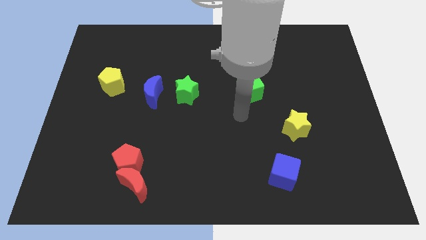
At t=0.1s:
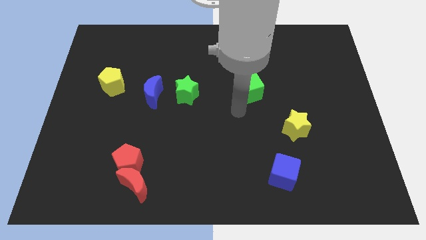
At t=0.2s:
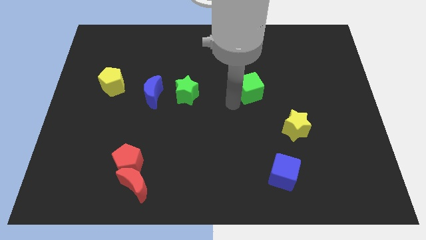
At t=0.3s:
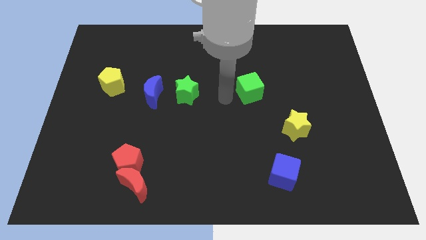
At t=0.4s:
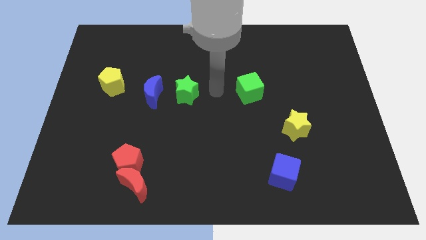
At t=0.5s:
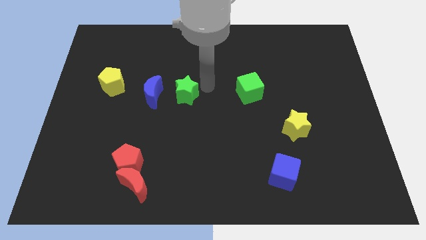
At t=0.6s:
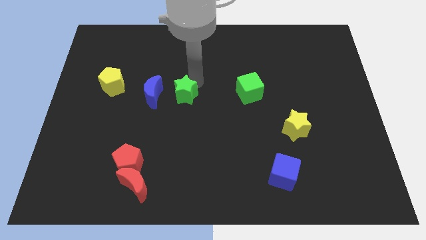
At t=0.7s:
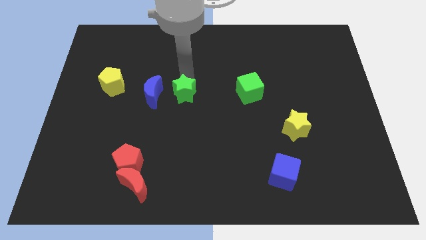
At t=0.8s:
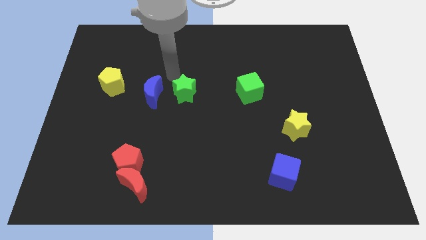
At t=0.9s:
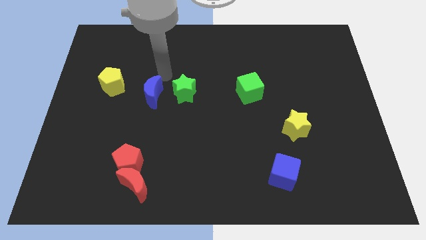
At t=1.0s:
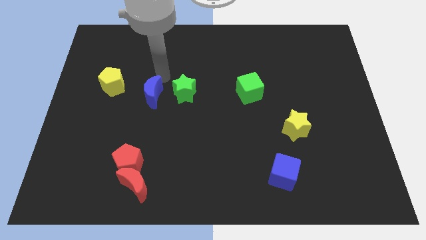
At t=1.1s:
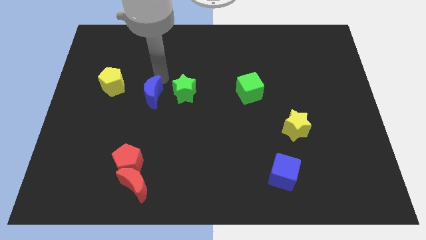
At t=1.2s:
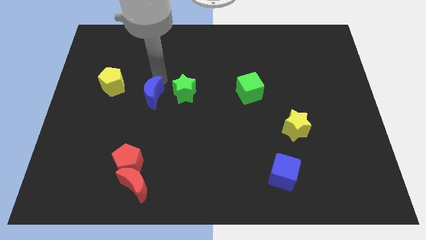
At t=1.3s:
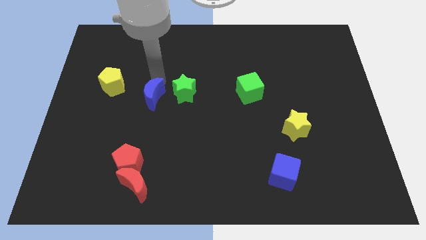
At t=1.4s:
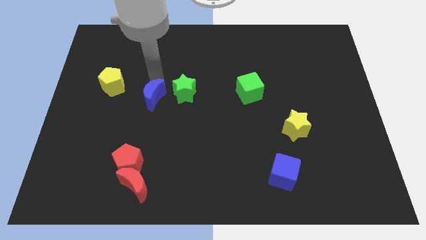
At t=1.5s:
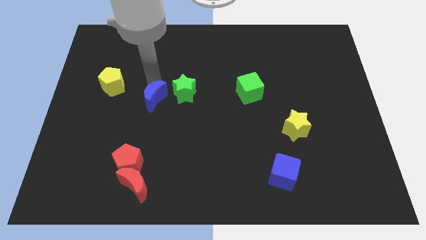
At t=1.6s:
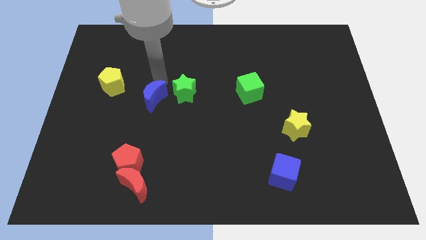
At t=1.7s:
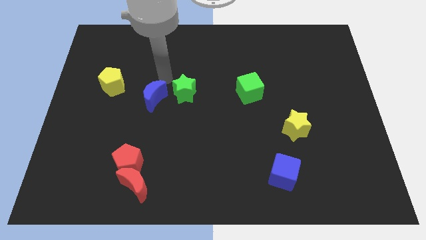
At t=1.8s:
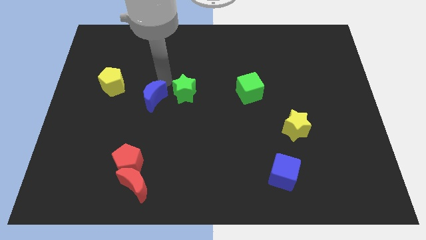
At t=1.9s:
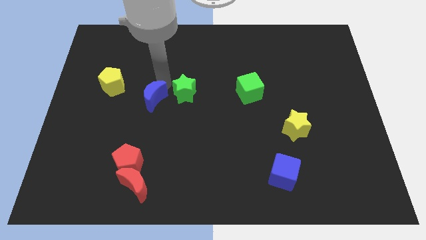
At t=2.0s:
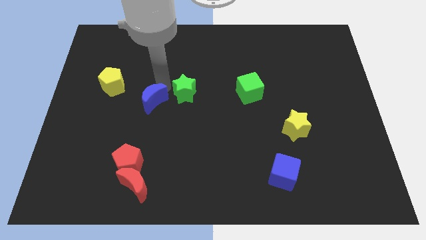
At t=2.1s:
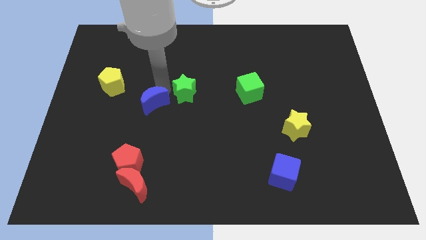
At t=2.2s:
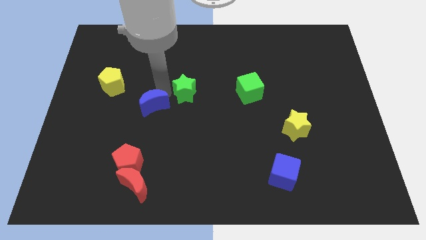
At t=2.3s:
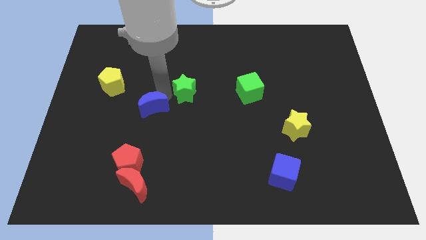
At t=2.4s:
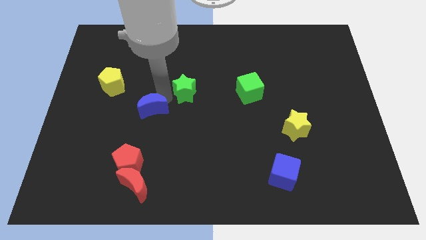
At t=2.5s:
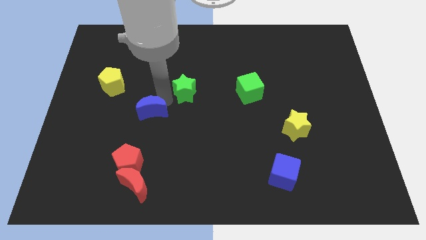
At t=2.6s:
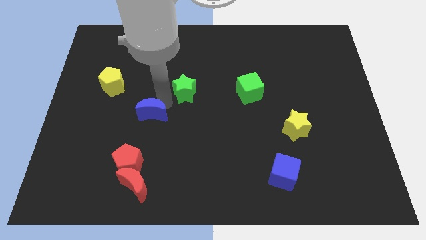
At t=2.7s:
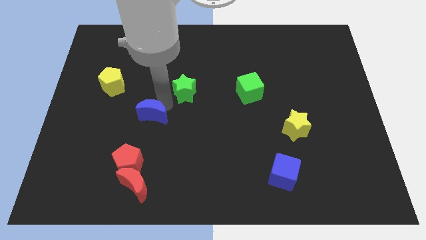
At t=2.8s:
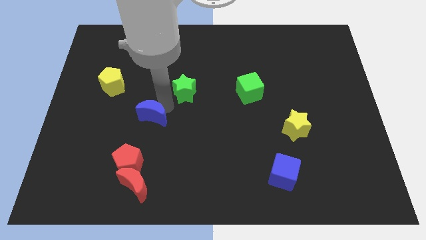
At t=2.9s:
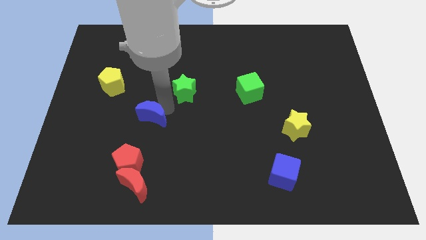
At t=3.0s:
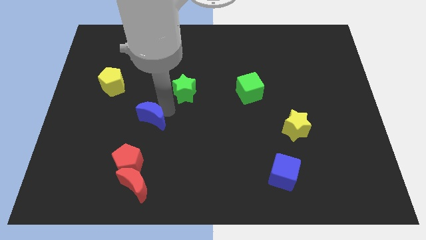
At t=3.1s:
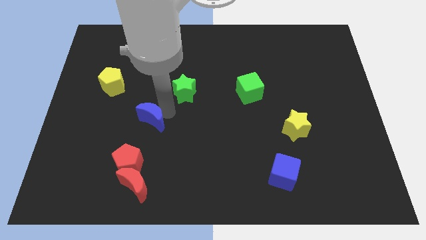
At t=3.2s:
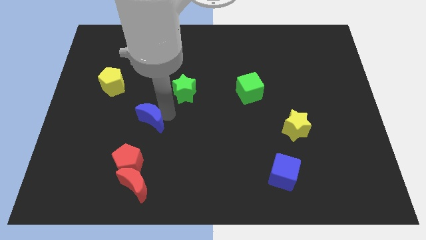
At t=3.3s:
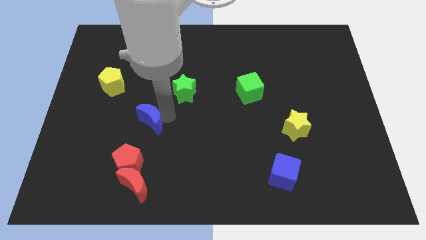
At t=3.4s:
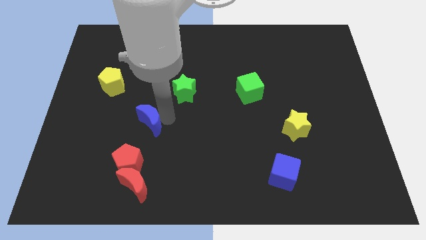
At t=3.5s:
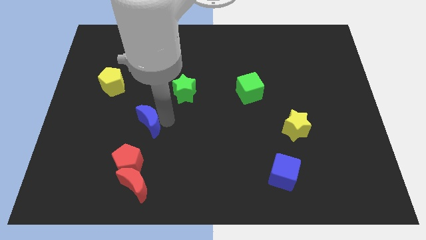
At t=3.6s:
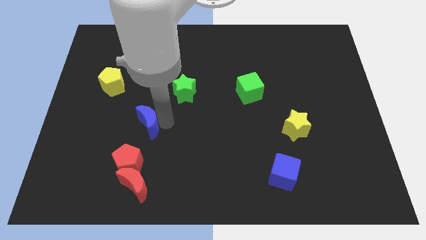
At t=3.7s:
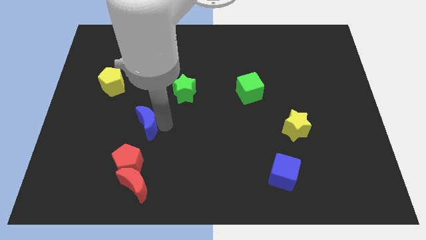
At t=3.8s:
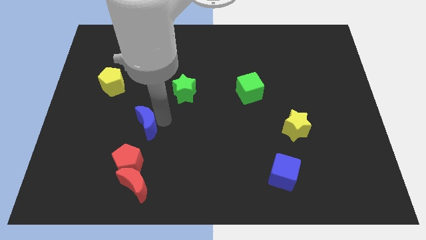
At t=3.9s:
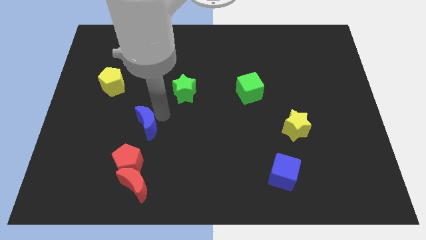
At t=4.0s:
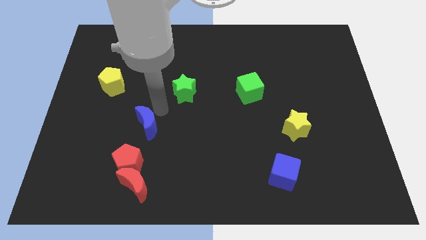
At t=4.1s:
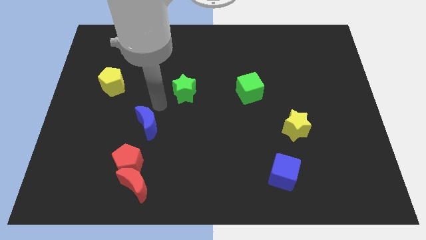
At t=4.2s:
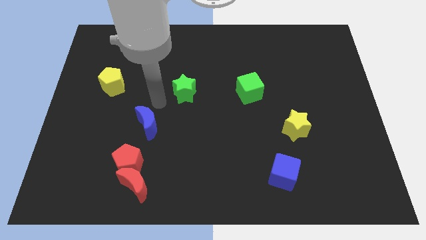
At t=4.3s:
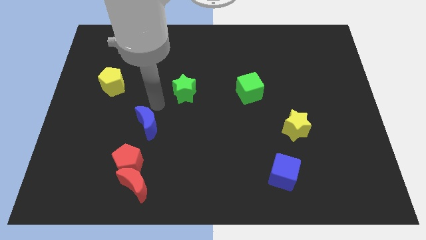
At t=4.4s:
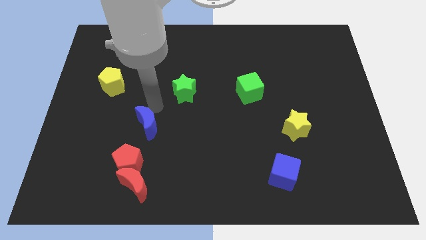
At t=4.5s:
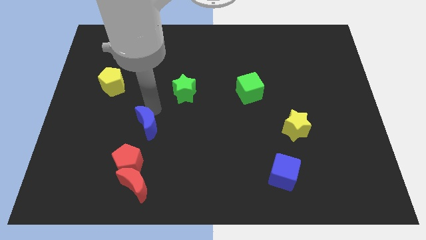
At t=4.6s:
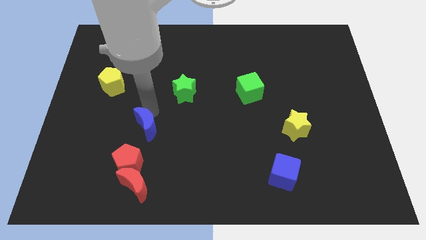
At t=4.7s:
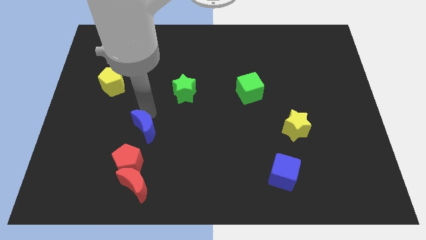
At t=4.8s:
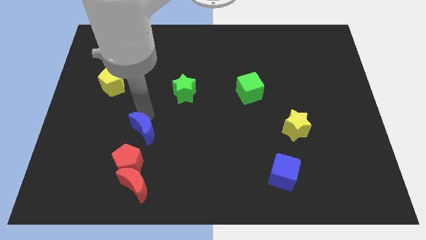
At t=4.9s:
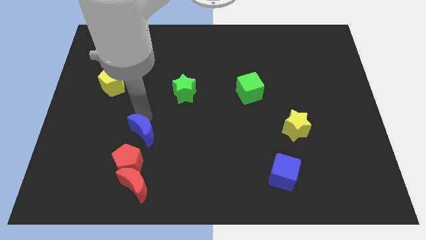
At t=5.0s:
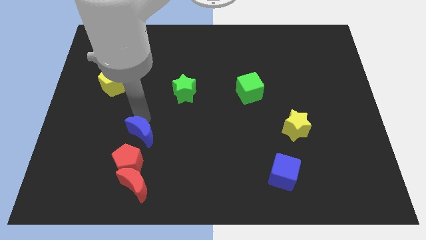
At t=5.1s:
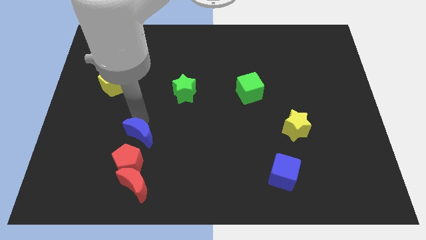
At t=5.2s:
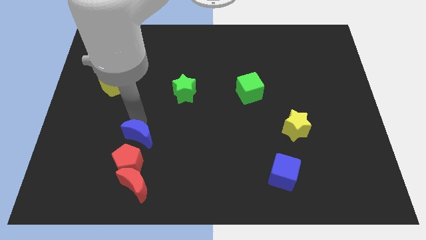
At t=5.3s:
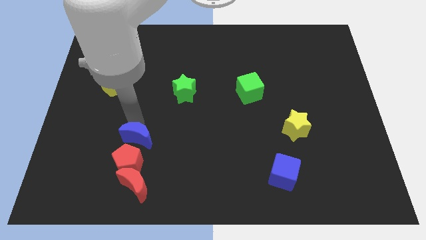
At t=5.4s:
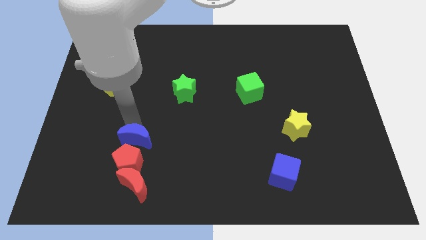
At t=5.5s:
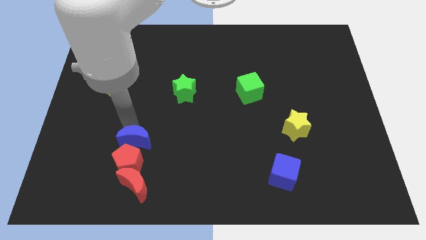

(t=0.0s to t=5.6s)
put the blue moon close to the red pentagon

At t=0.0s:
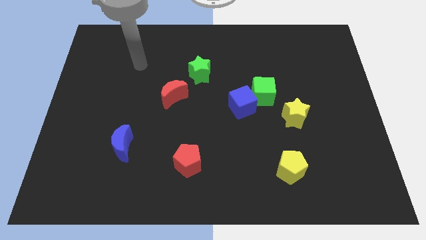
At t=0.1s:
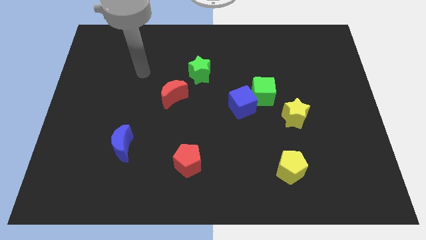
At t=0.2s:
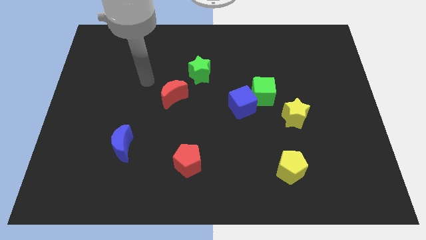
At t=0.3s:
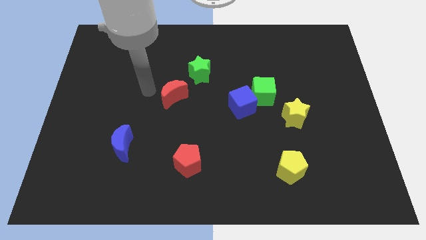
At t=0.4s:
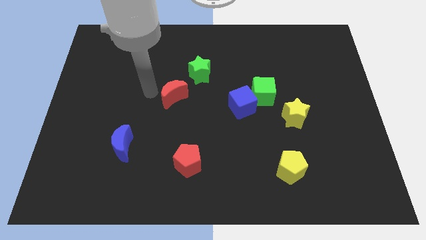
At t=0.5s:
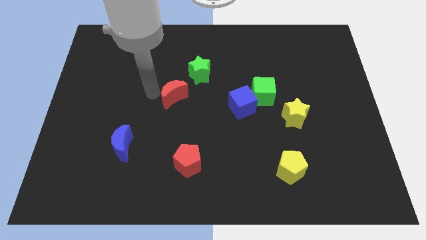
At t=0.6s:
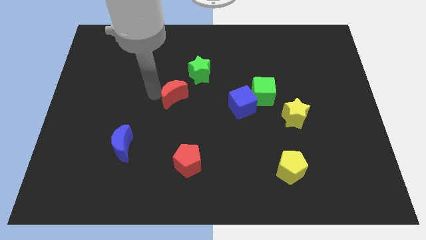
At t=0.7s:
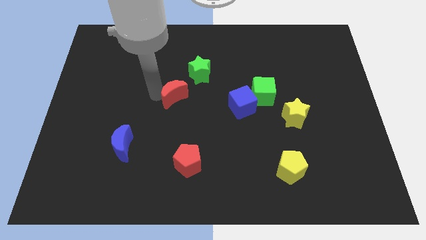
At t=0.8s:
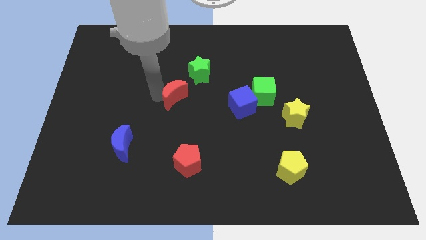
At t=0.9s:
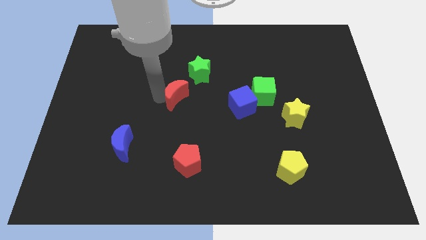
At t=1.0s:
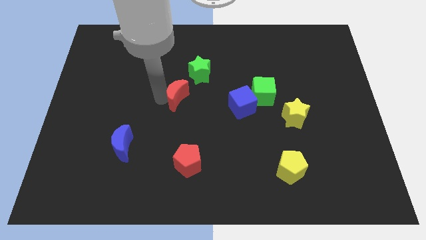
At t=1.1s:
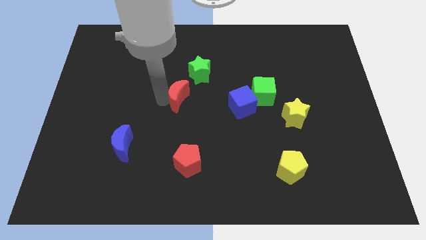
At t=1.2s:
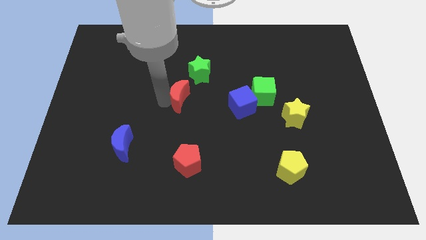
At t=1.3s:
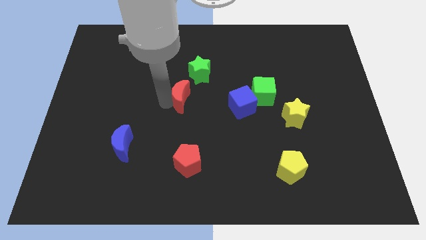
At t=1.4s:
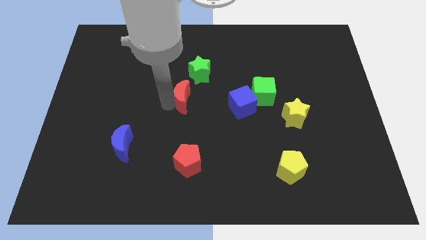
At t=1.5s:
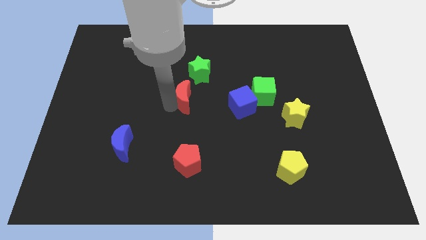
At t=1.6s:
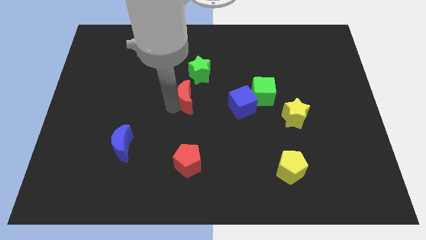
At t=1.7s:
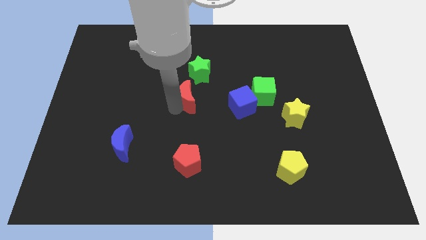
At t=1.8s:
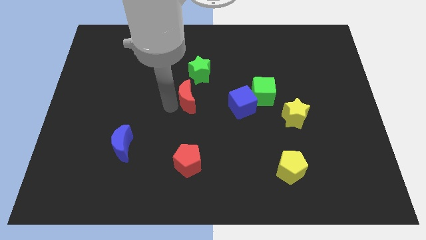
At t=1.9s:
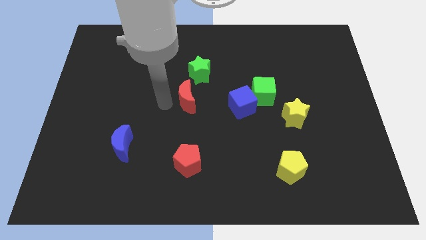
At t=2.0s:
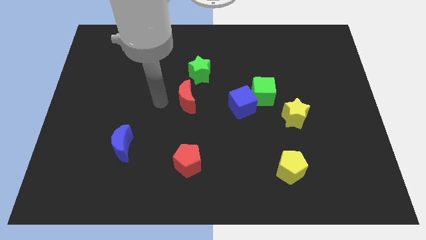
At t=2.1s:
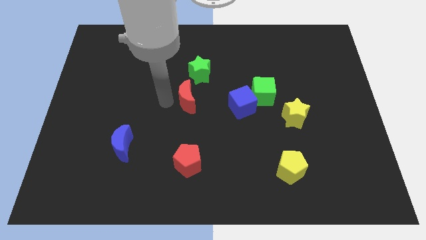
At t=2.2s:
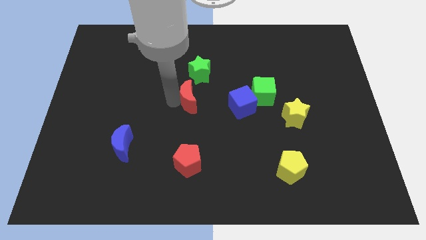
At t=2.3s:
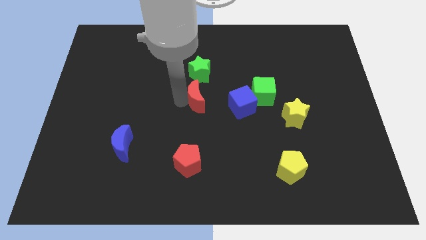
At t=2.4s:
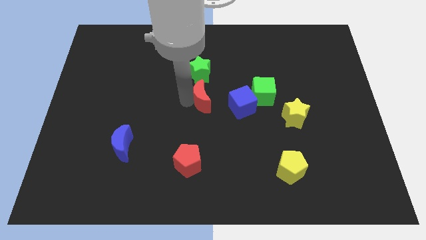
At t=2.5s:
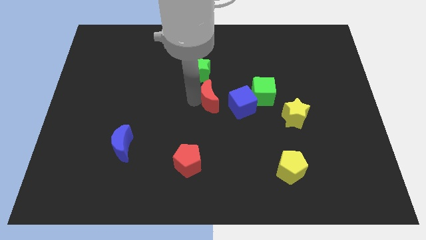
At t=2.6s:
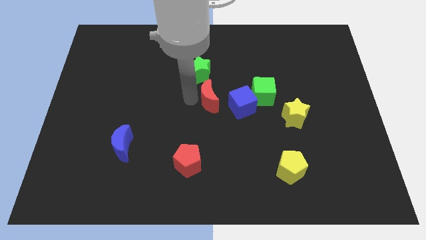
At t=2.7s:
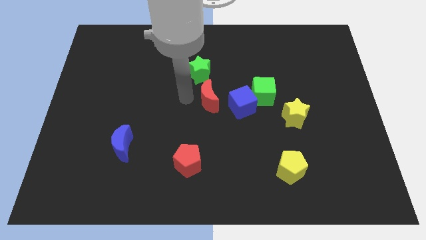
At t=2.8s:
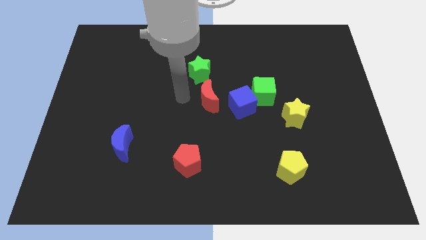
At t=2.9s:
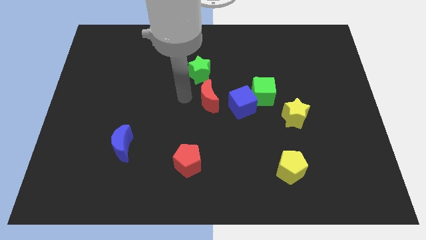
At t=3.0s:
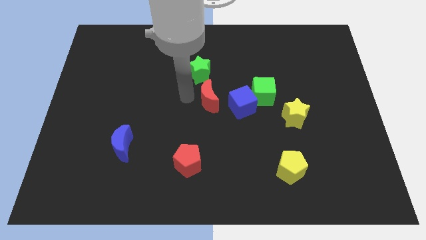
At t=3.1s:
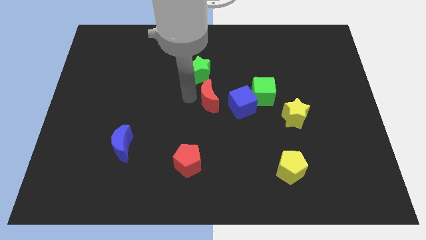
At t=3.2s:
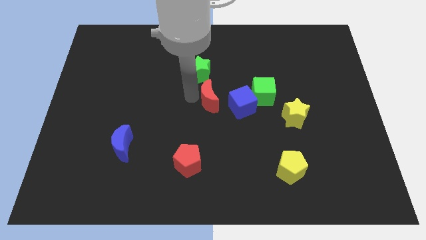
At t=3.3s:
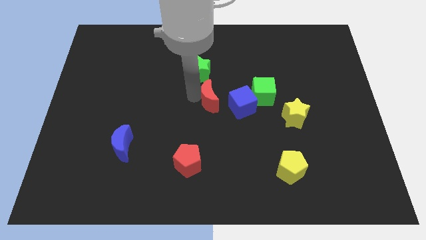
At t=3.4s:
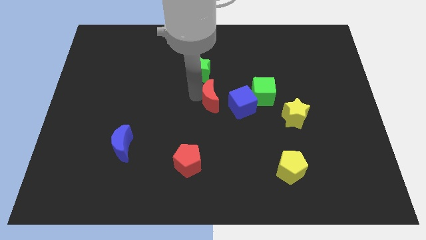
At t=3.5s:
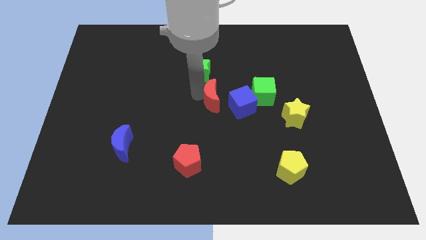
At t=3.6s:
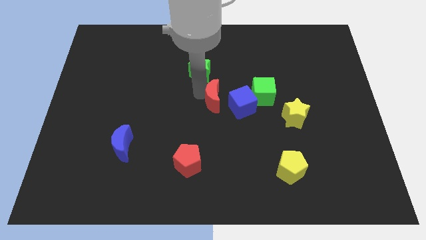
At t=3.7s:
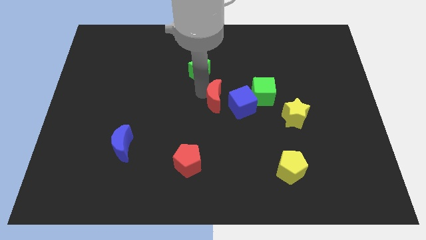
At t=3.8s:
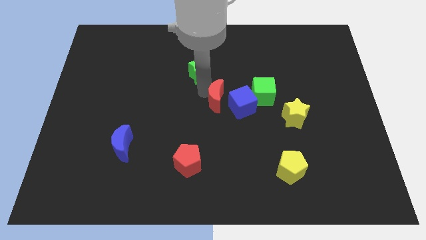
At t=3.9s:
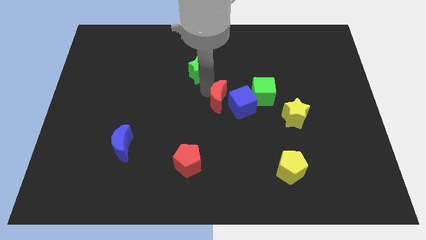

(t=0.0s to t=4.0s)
slide the red moon towards the blue cube
